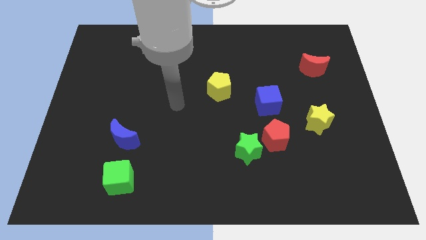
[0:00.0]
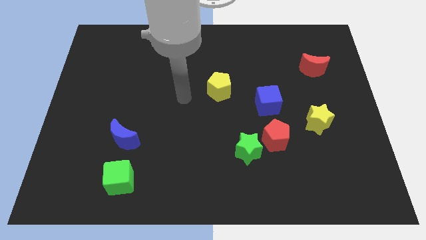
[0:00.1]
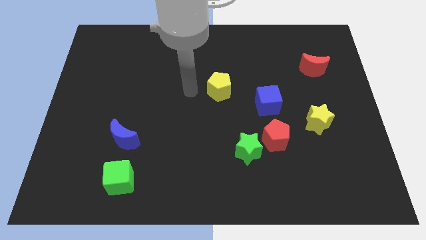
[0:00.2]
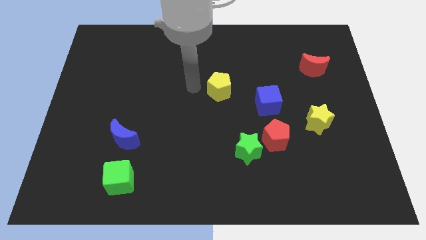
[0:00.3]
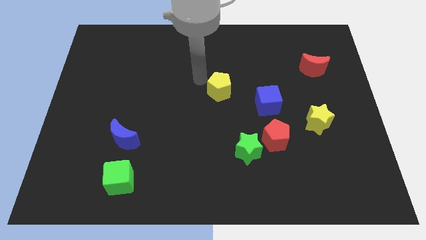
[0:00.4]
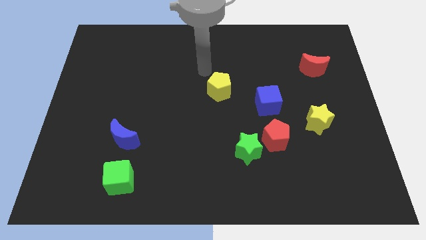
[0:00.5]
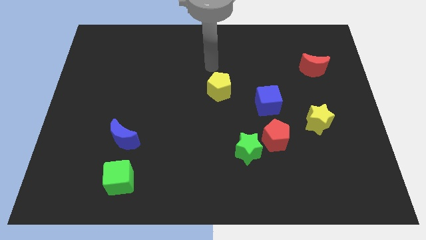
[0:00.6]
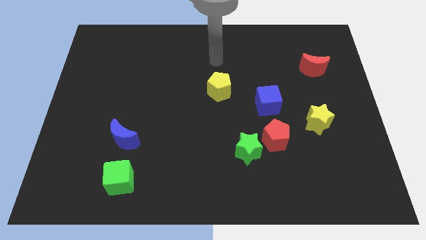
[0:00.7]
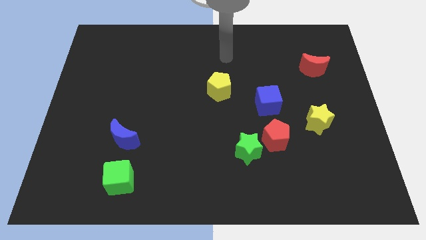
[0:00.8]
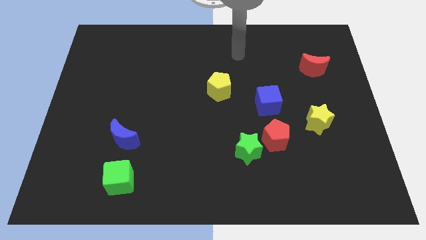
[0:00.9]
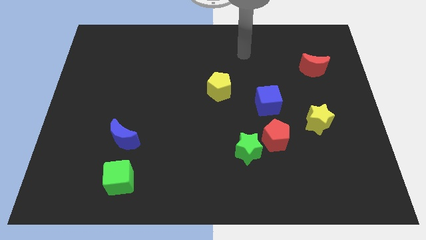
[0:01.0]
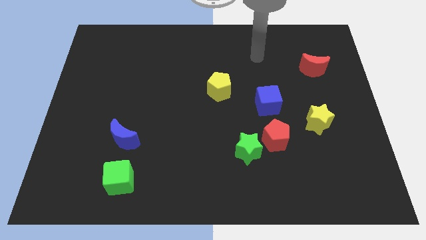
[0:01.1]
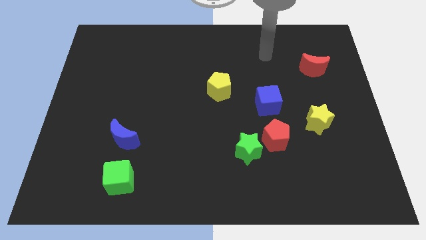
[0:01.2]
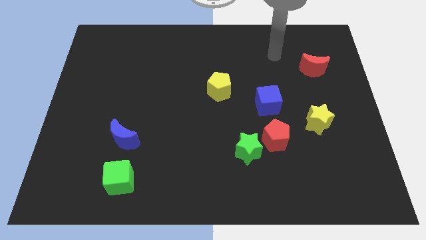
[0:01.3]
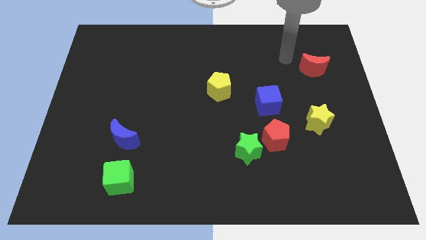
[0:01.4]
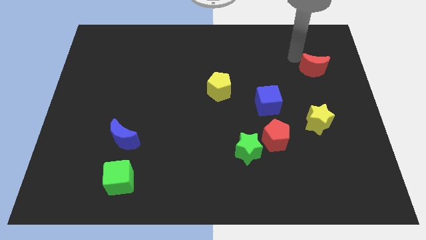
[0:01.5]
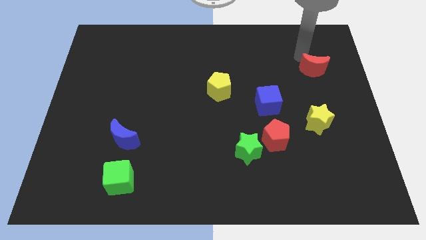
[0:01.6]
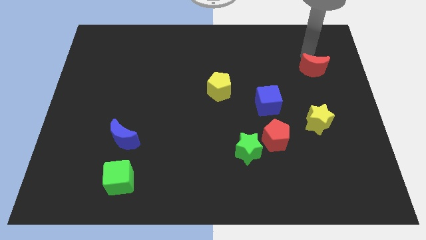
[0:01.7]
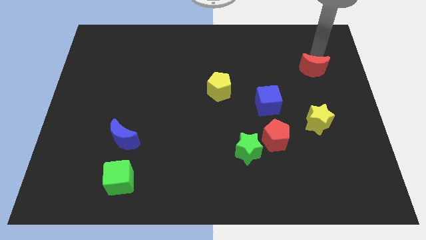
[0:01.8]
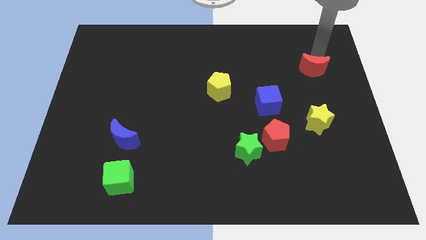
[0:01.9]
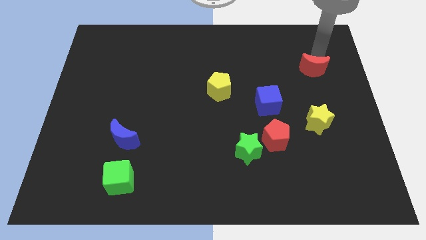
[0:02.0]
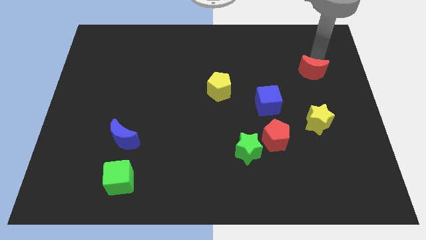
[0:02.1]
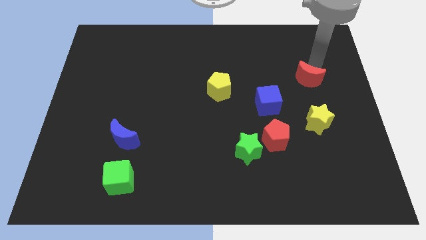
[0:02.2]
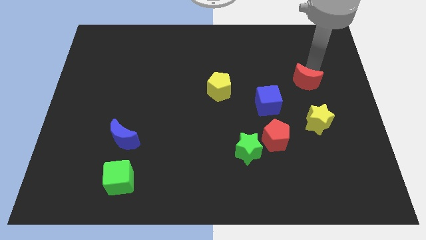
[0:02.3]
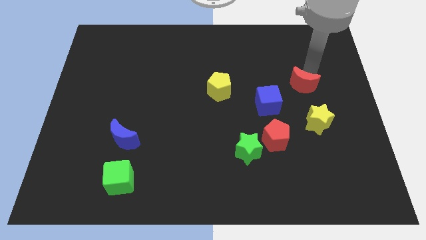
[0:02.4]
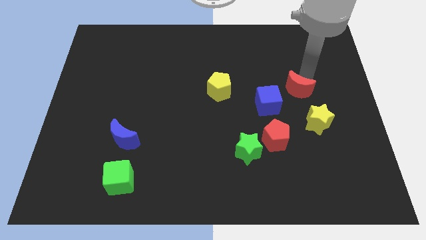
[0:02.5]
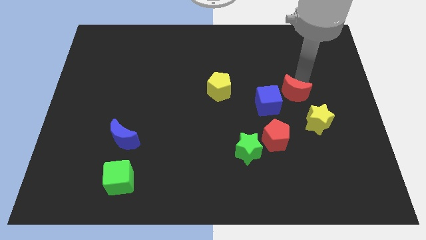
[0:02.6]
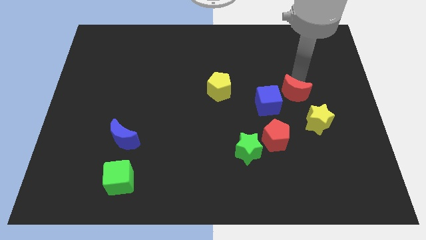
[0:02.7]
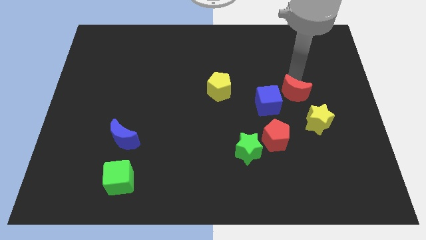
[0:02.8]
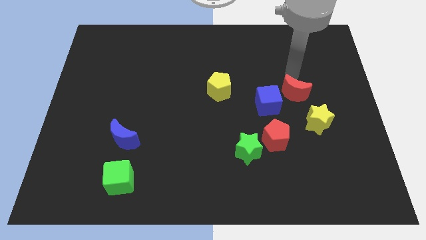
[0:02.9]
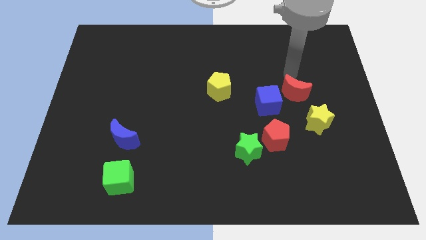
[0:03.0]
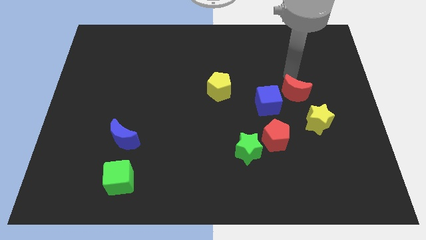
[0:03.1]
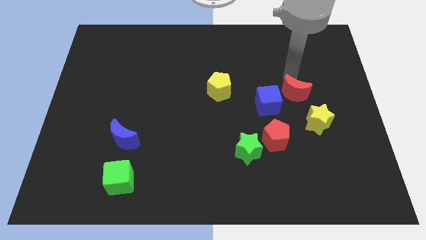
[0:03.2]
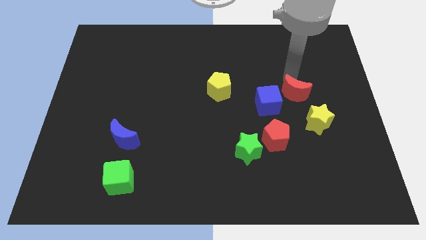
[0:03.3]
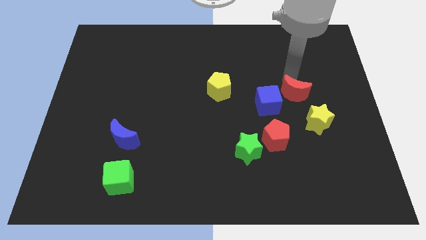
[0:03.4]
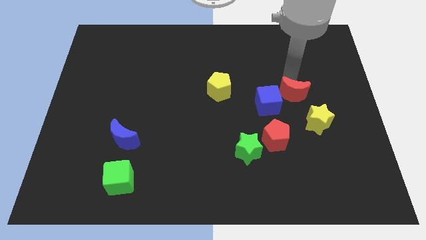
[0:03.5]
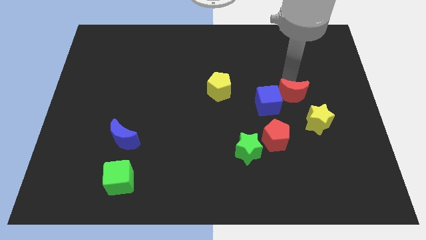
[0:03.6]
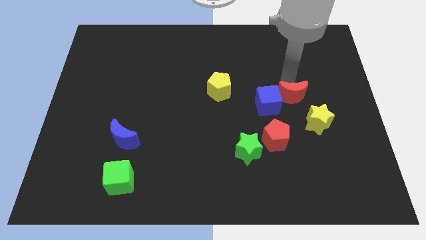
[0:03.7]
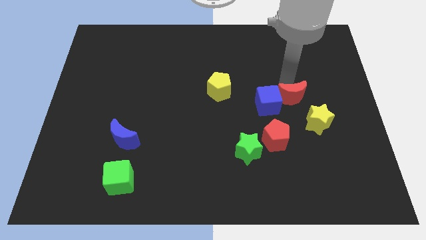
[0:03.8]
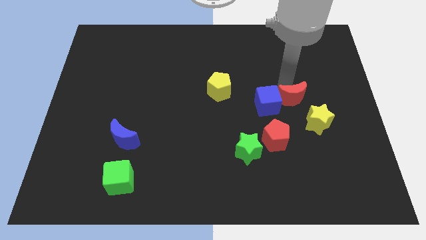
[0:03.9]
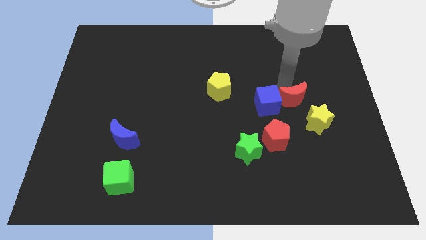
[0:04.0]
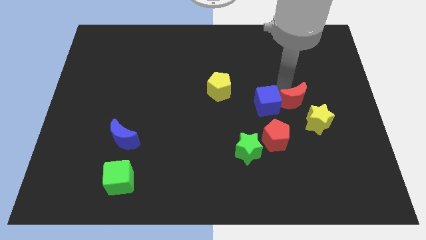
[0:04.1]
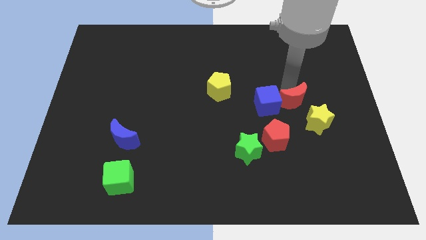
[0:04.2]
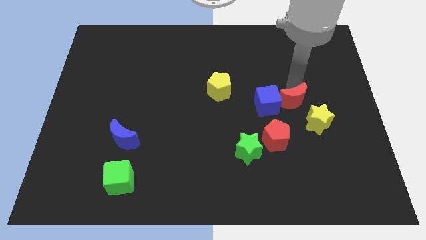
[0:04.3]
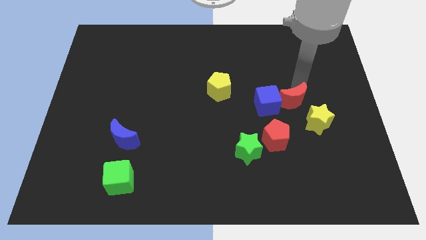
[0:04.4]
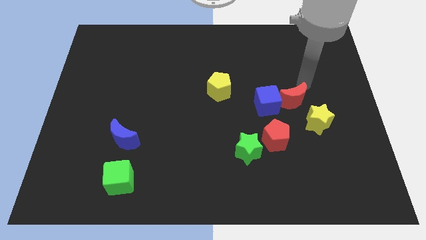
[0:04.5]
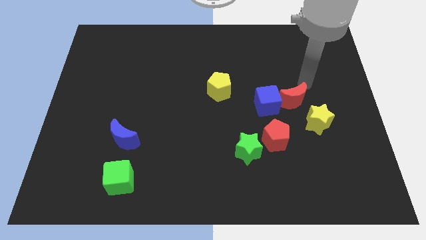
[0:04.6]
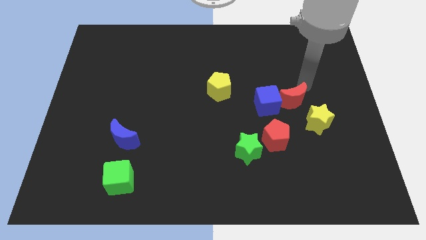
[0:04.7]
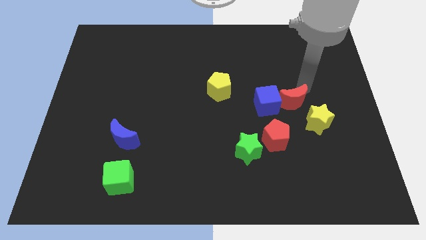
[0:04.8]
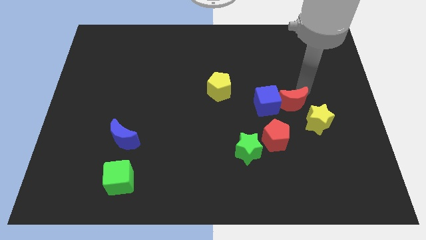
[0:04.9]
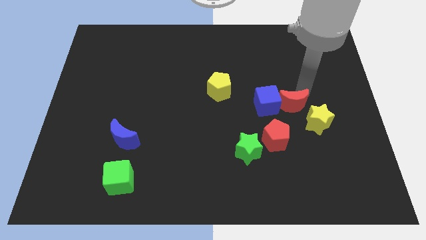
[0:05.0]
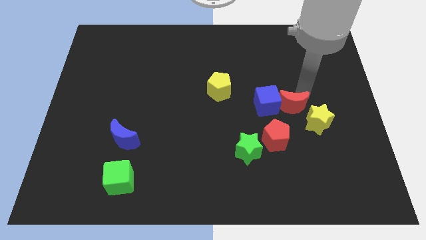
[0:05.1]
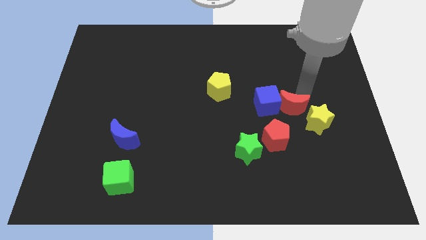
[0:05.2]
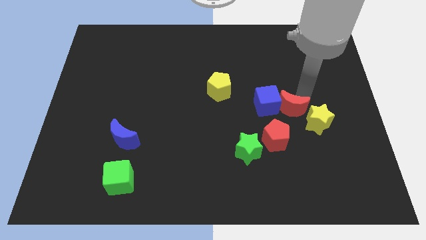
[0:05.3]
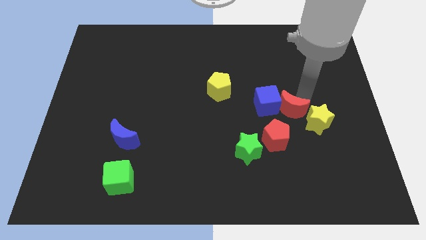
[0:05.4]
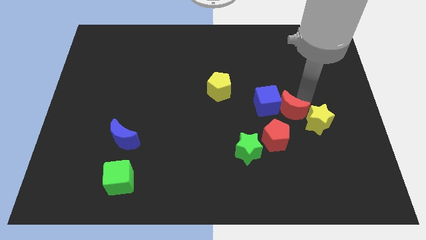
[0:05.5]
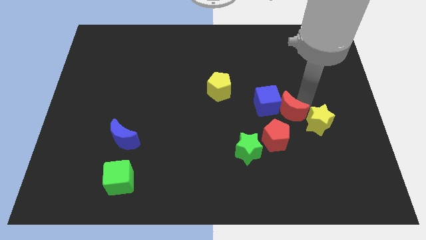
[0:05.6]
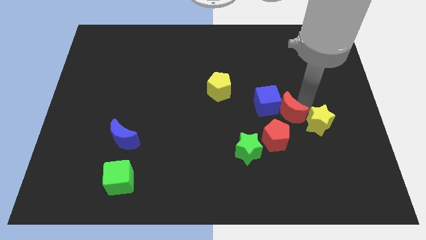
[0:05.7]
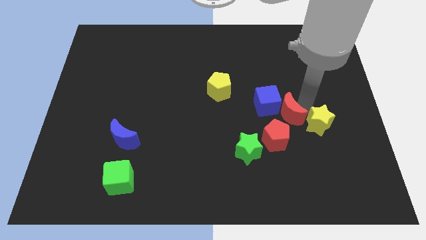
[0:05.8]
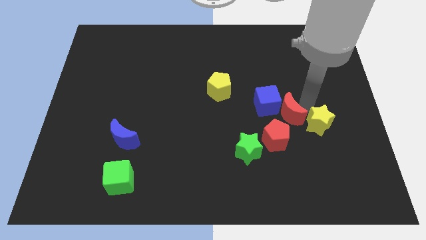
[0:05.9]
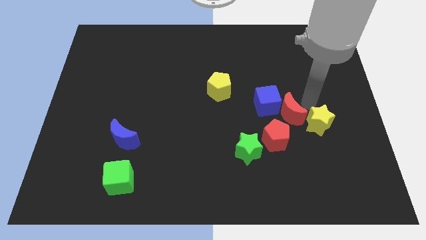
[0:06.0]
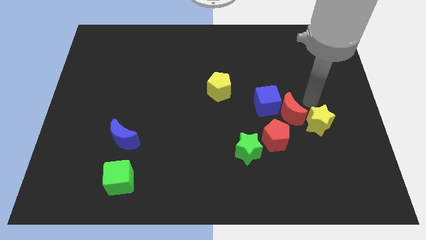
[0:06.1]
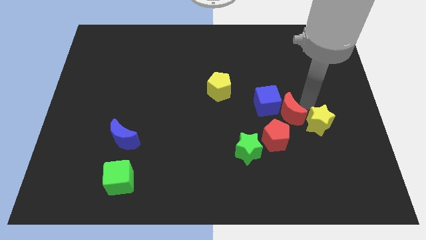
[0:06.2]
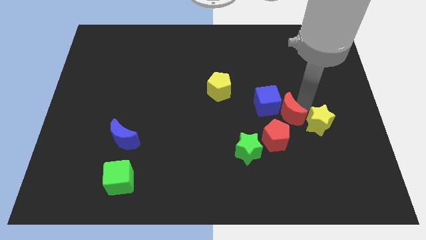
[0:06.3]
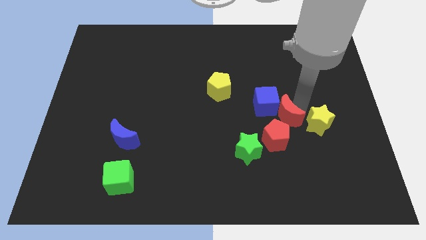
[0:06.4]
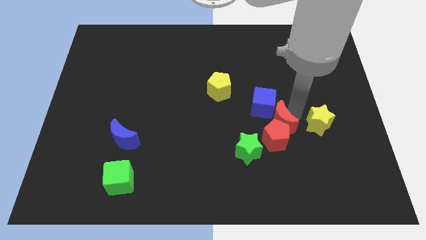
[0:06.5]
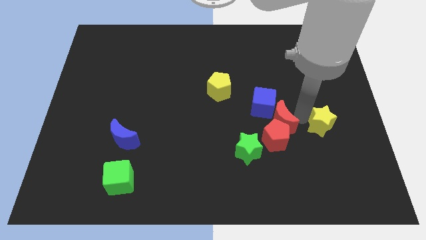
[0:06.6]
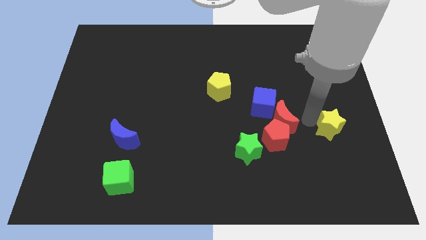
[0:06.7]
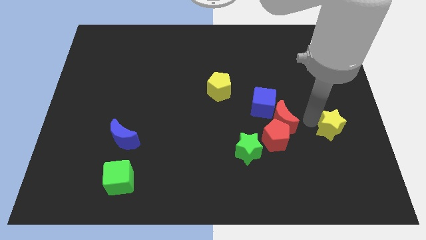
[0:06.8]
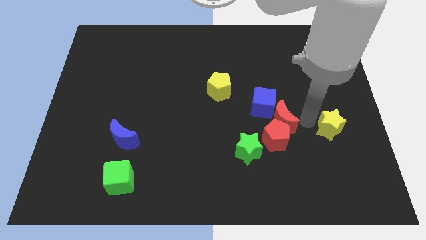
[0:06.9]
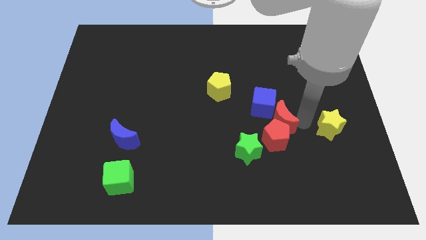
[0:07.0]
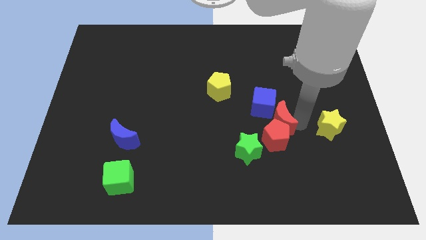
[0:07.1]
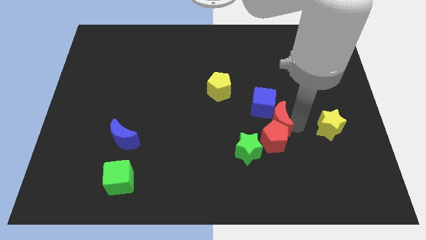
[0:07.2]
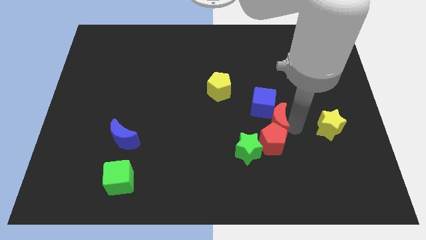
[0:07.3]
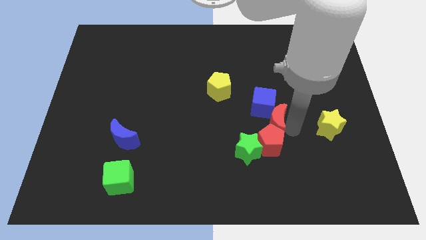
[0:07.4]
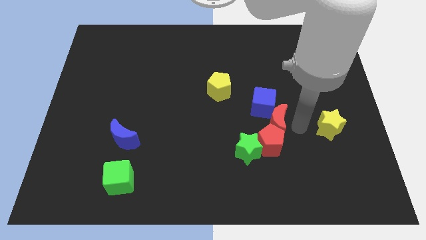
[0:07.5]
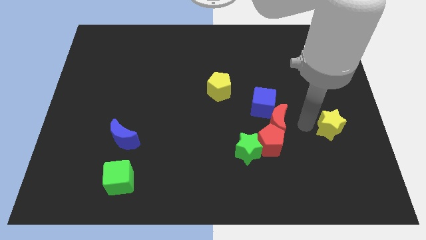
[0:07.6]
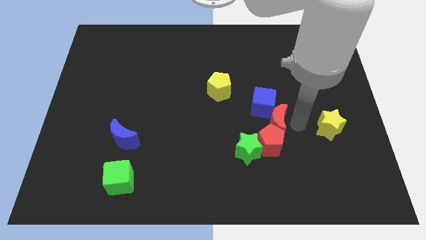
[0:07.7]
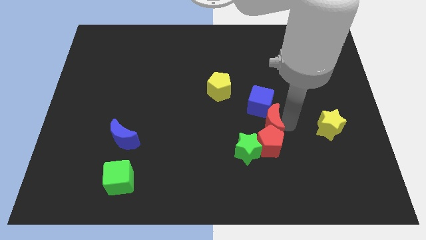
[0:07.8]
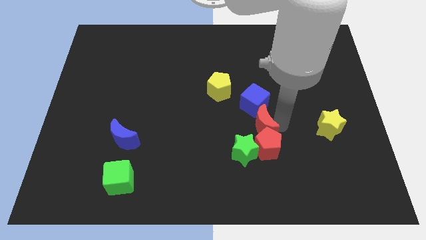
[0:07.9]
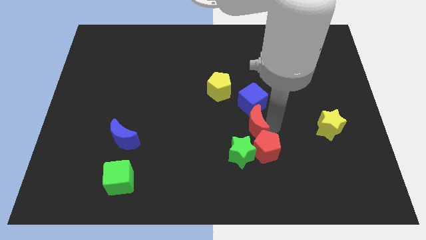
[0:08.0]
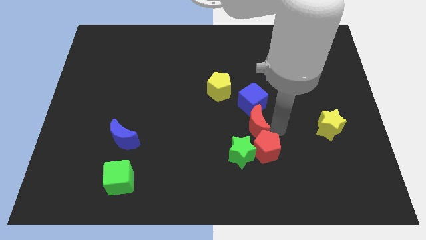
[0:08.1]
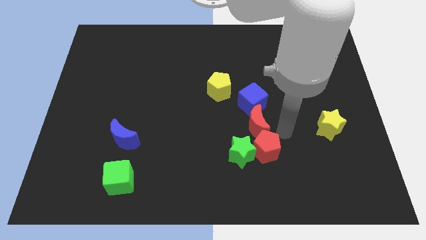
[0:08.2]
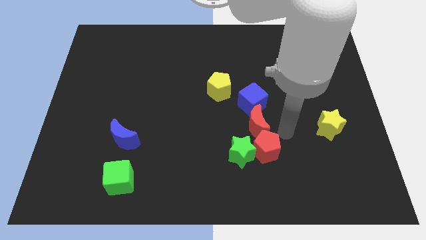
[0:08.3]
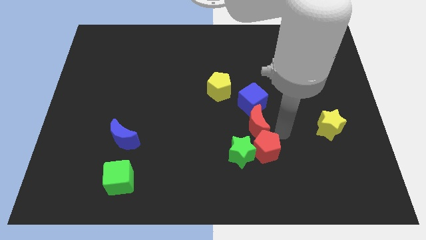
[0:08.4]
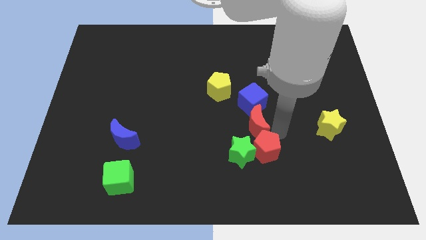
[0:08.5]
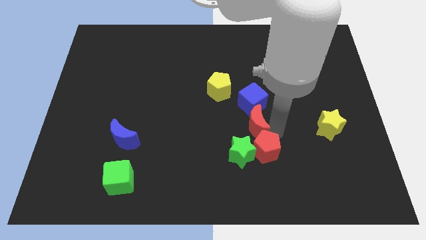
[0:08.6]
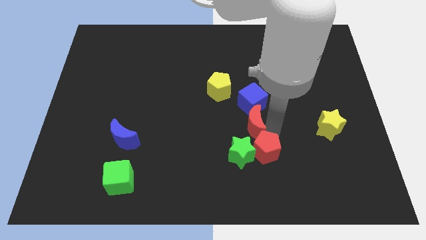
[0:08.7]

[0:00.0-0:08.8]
move the red moon diagonally down and to the left of the blue cube
